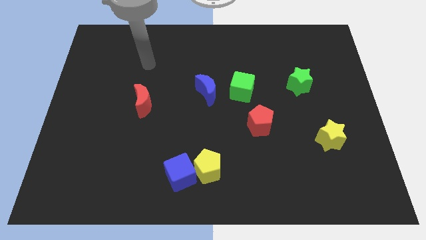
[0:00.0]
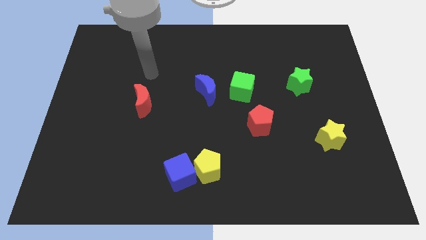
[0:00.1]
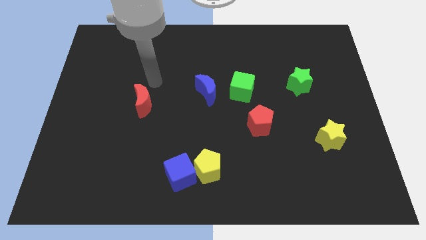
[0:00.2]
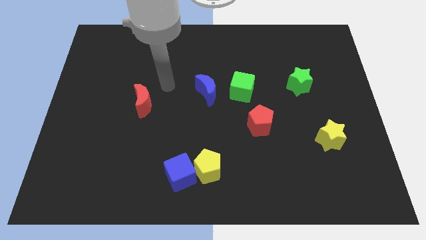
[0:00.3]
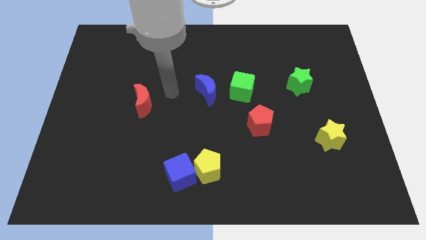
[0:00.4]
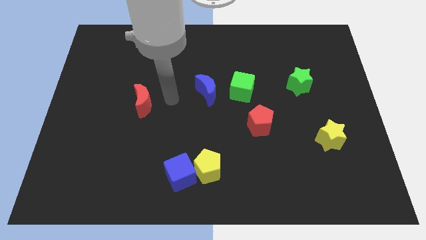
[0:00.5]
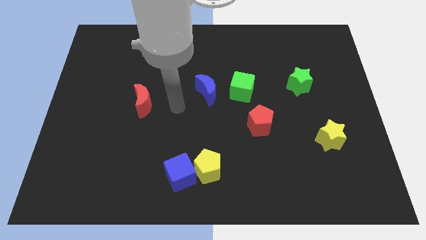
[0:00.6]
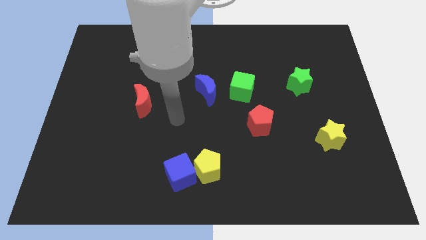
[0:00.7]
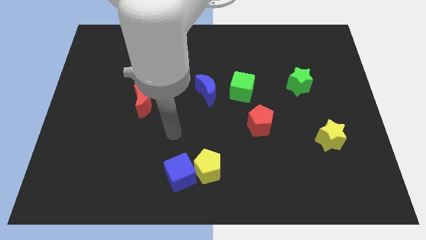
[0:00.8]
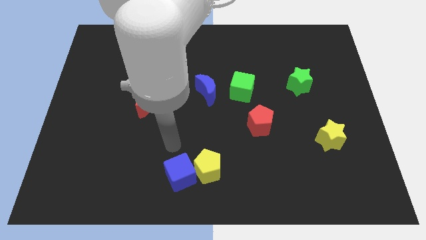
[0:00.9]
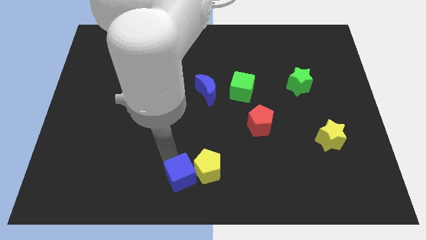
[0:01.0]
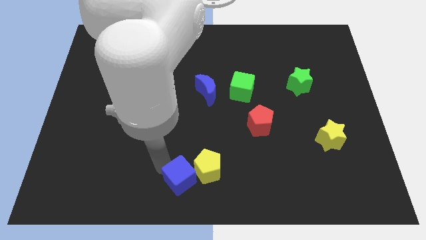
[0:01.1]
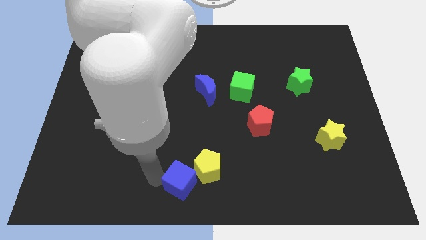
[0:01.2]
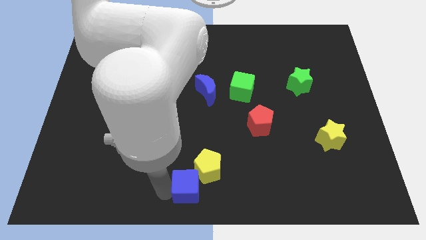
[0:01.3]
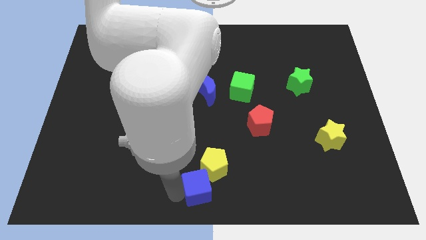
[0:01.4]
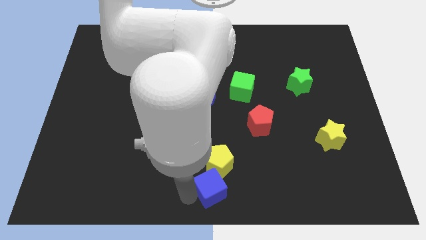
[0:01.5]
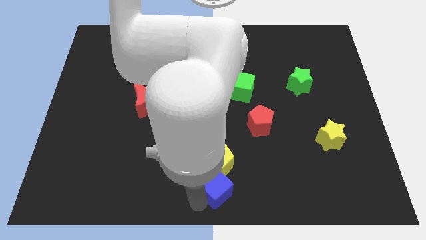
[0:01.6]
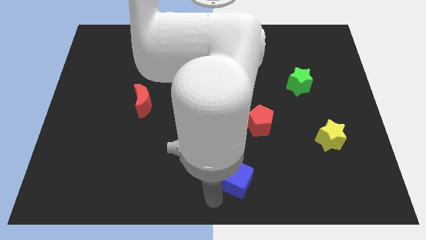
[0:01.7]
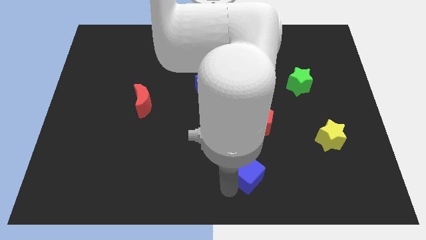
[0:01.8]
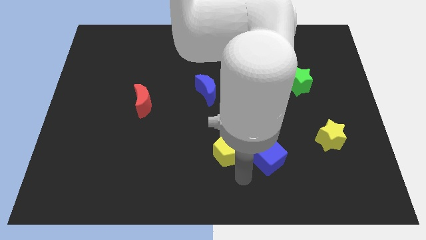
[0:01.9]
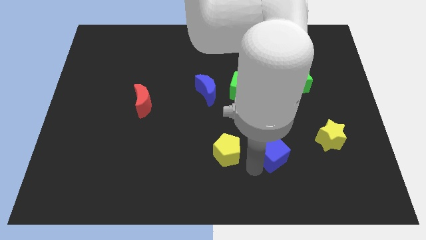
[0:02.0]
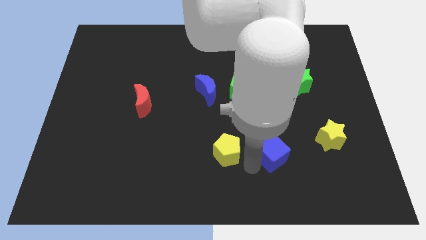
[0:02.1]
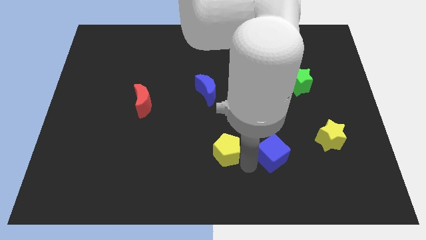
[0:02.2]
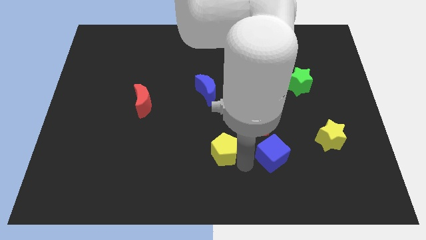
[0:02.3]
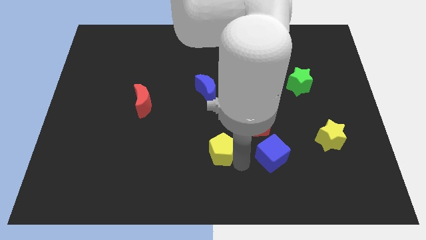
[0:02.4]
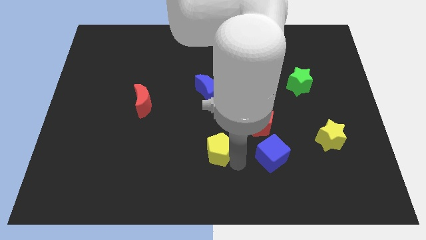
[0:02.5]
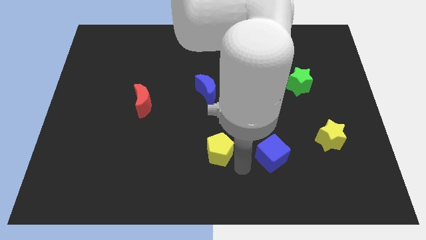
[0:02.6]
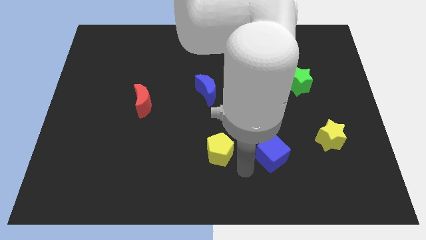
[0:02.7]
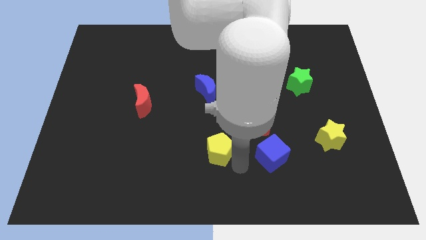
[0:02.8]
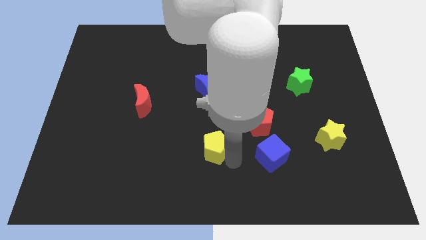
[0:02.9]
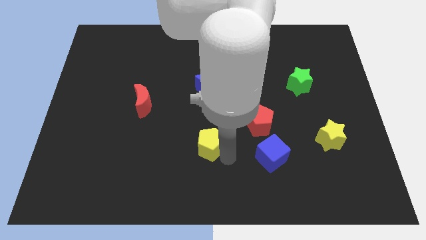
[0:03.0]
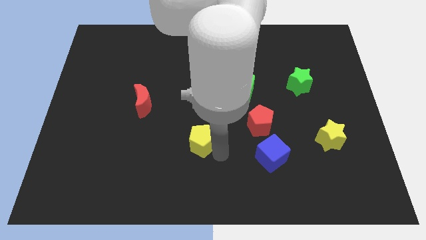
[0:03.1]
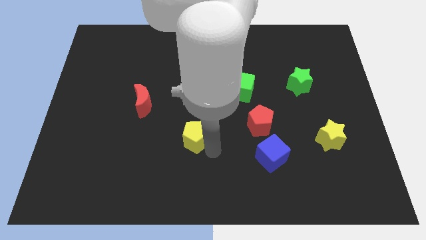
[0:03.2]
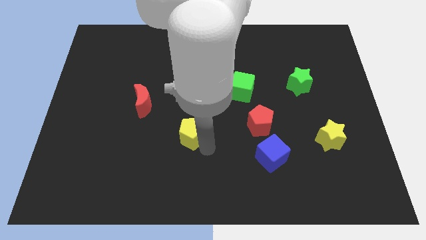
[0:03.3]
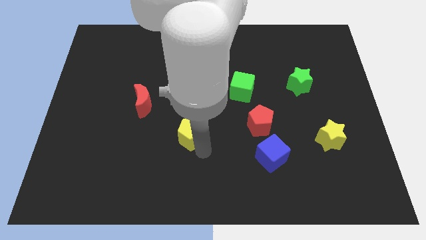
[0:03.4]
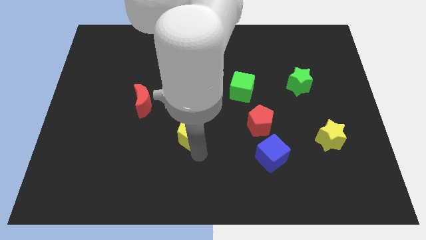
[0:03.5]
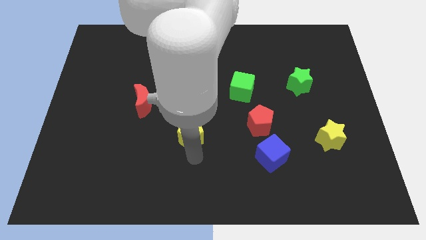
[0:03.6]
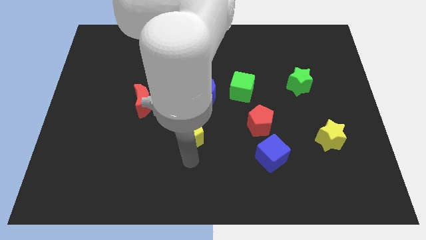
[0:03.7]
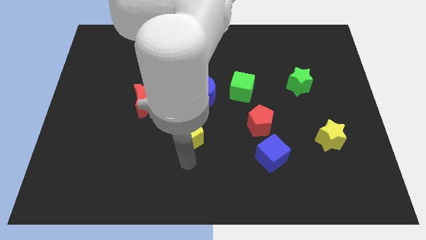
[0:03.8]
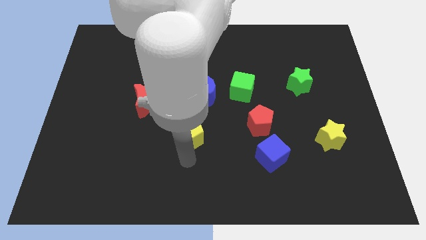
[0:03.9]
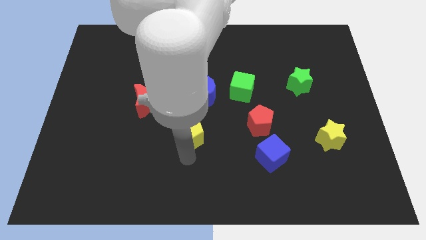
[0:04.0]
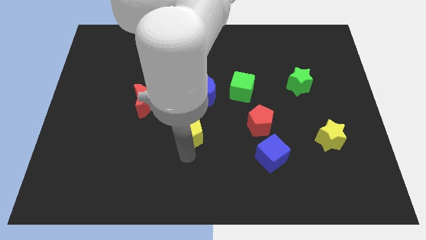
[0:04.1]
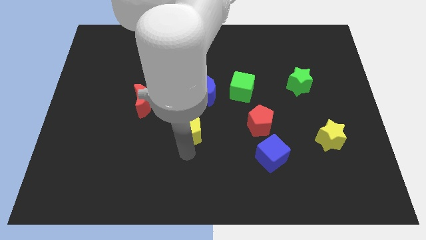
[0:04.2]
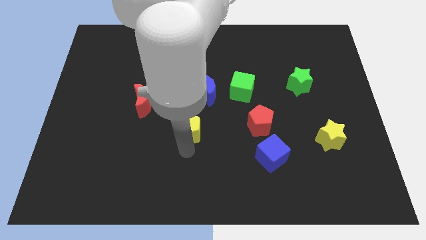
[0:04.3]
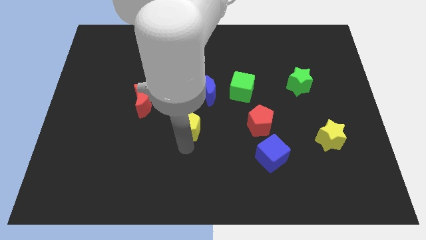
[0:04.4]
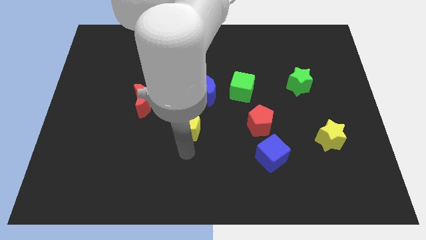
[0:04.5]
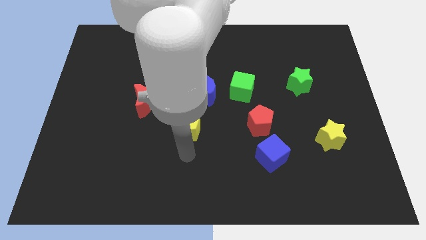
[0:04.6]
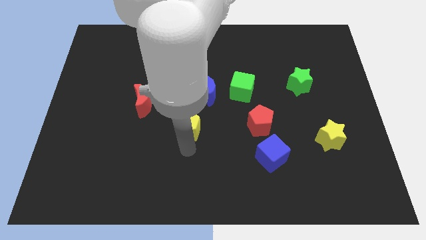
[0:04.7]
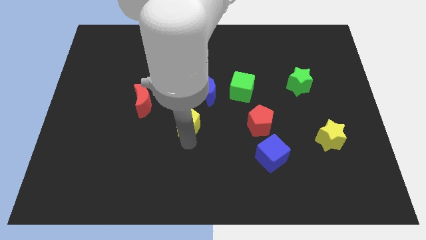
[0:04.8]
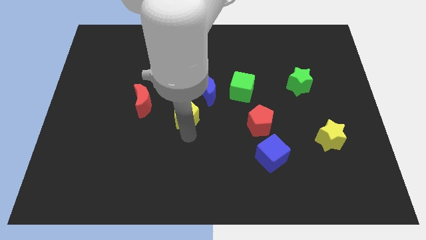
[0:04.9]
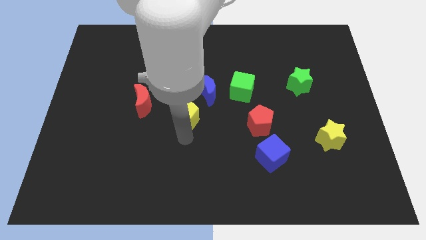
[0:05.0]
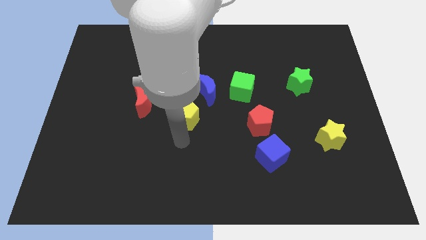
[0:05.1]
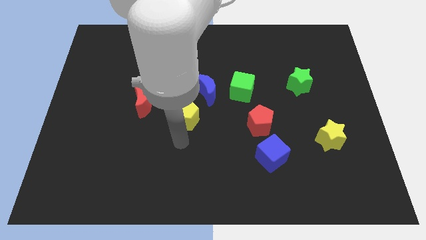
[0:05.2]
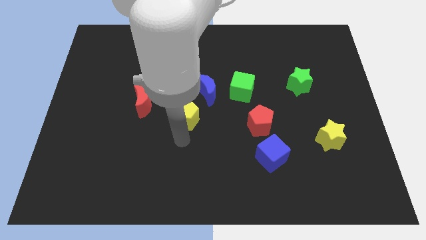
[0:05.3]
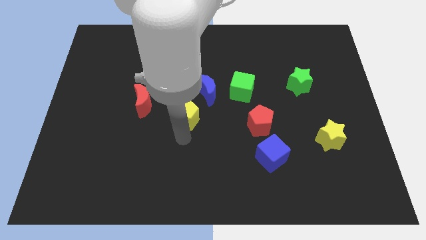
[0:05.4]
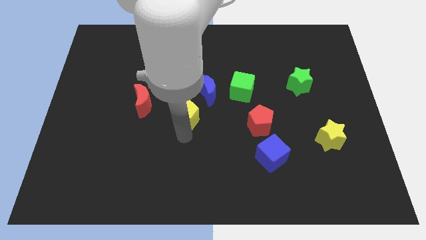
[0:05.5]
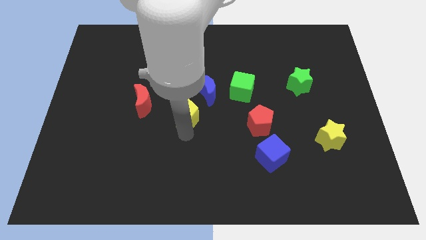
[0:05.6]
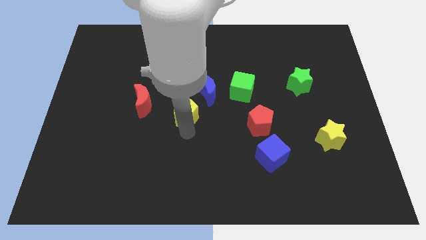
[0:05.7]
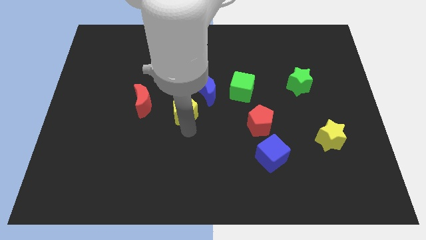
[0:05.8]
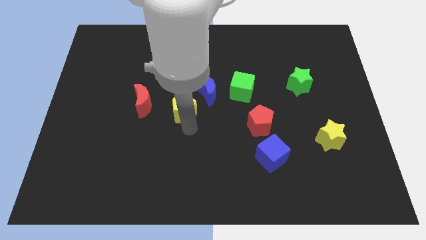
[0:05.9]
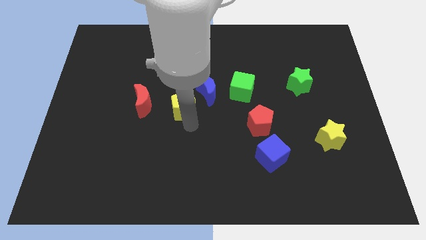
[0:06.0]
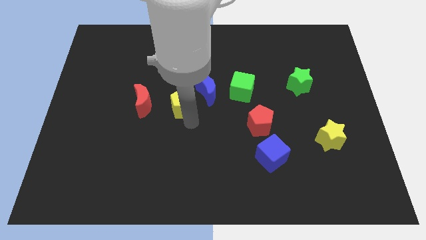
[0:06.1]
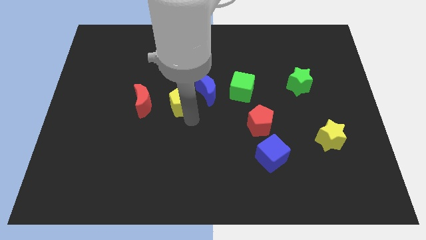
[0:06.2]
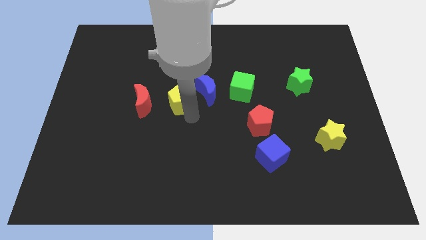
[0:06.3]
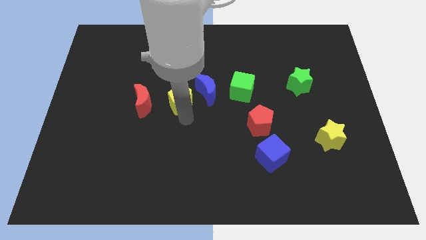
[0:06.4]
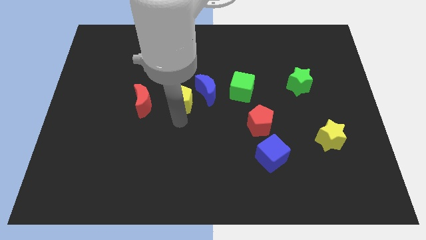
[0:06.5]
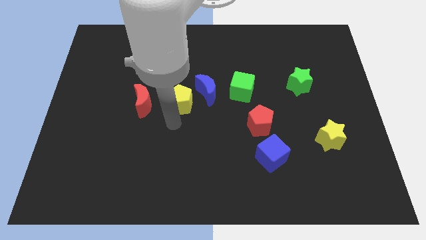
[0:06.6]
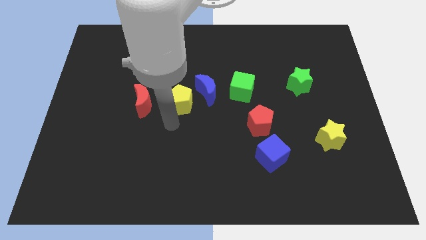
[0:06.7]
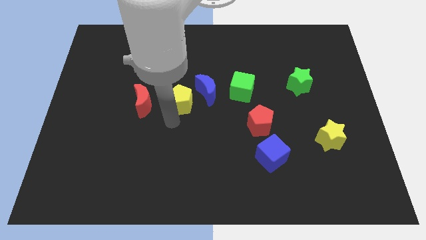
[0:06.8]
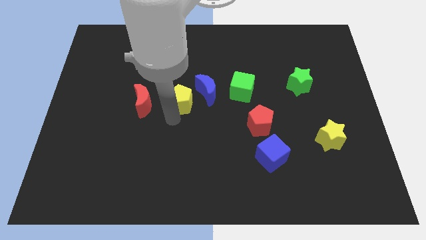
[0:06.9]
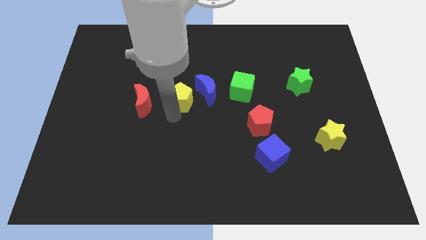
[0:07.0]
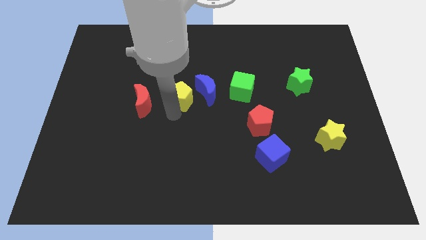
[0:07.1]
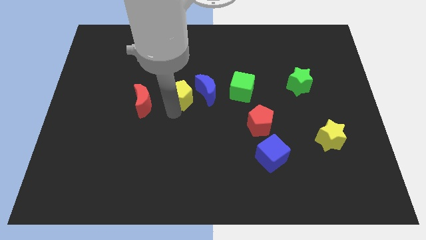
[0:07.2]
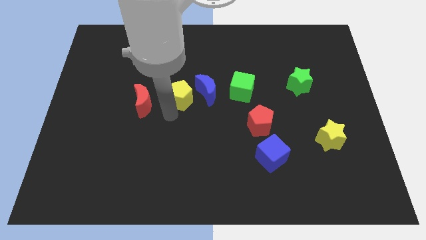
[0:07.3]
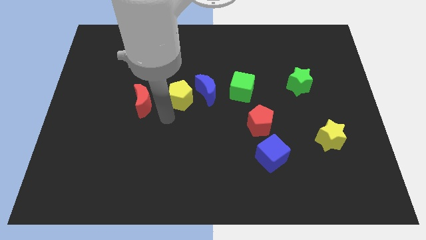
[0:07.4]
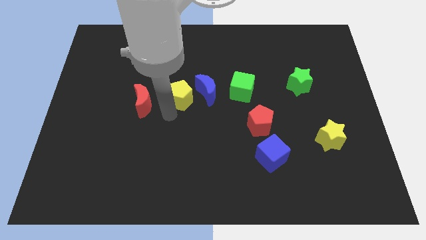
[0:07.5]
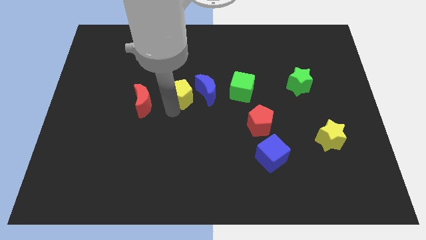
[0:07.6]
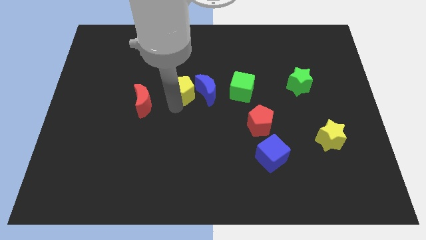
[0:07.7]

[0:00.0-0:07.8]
slide the yellow pentagon to the top left of the blue moon
